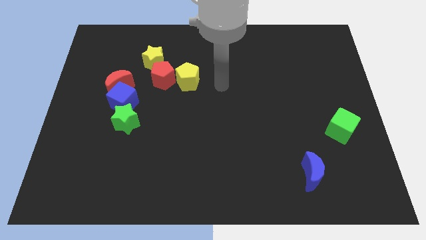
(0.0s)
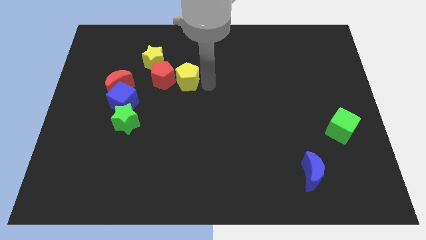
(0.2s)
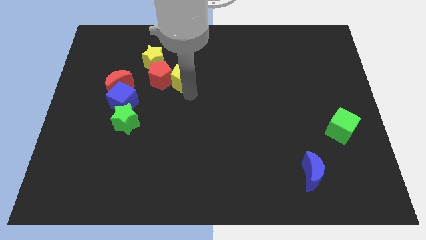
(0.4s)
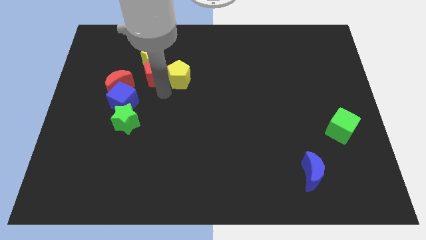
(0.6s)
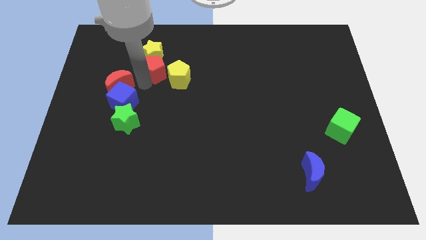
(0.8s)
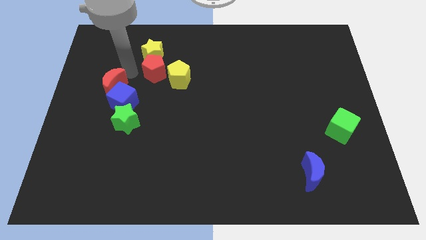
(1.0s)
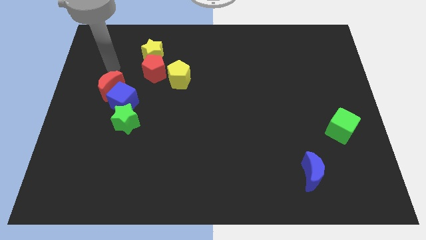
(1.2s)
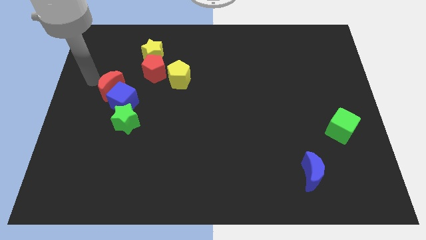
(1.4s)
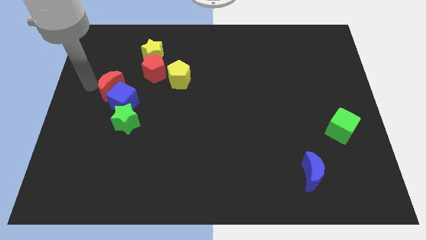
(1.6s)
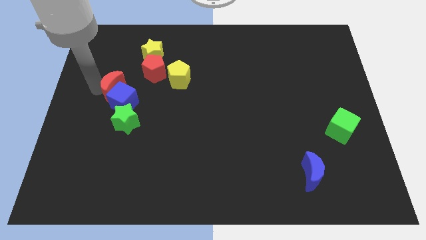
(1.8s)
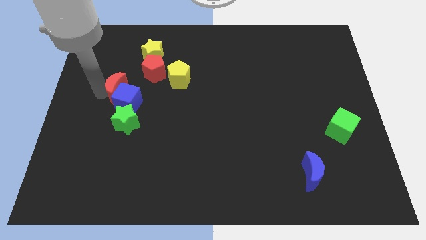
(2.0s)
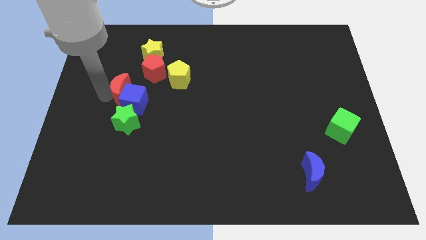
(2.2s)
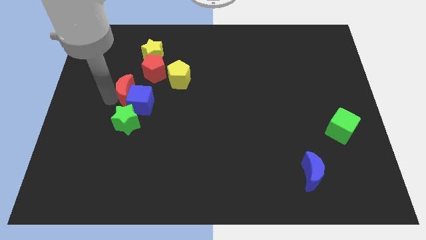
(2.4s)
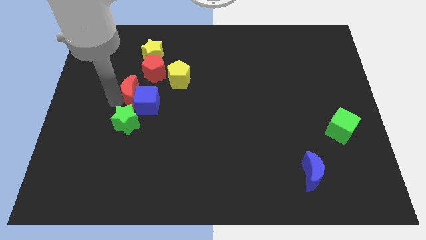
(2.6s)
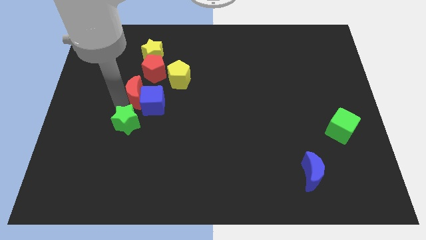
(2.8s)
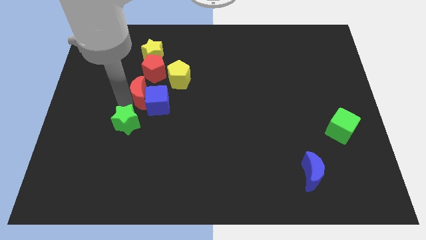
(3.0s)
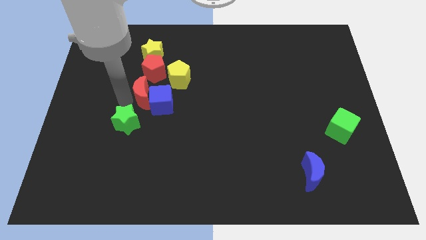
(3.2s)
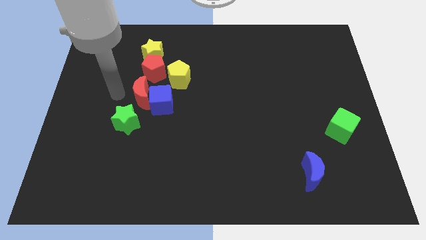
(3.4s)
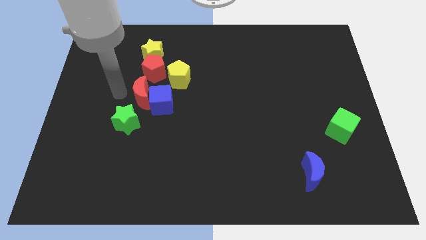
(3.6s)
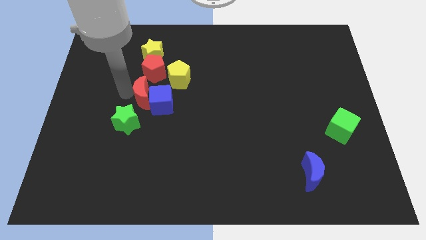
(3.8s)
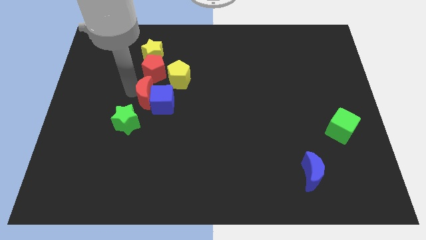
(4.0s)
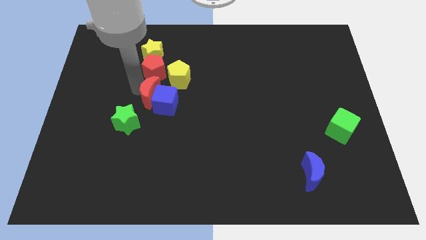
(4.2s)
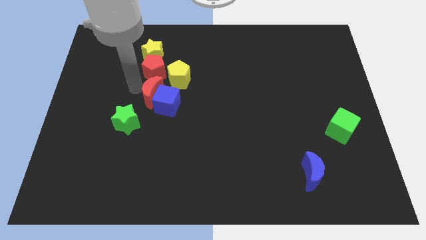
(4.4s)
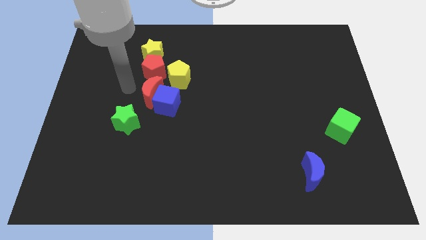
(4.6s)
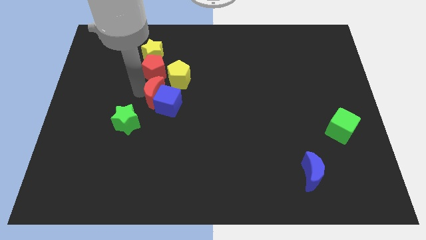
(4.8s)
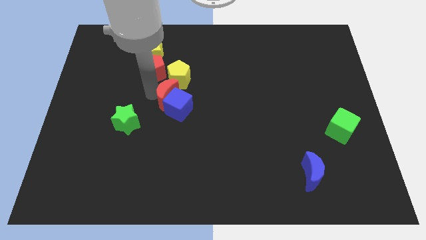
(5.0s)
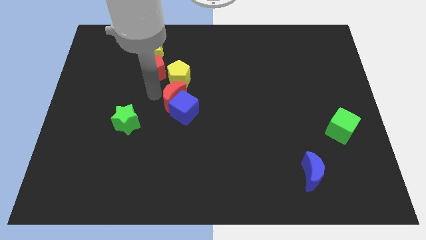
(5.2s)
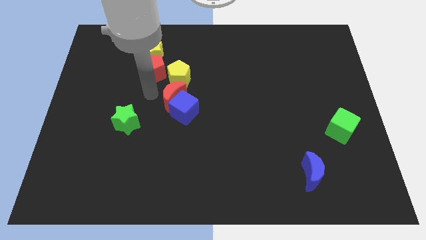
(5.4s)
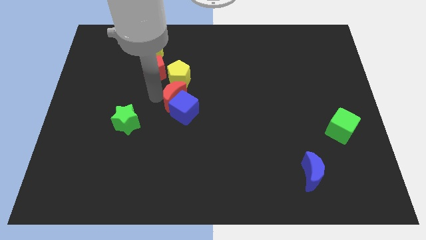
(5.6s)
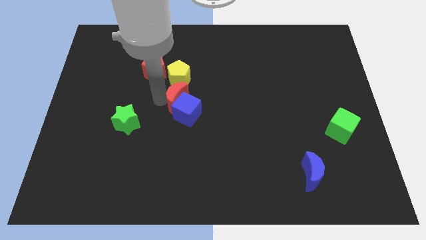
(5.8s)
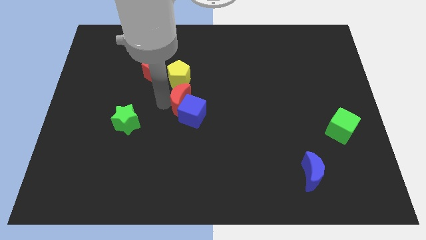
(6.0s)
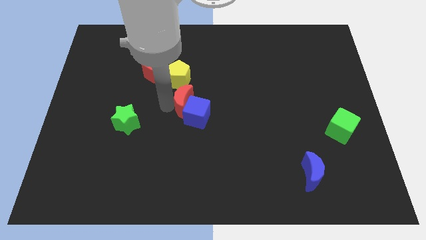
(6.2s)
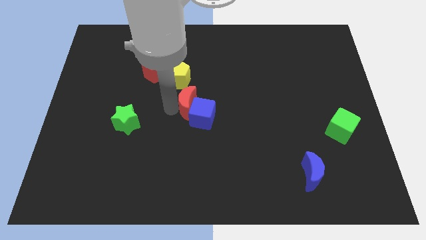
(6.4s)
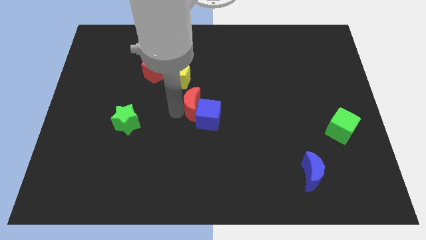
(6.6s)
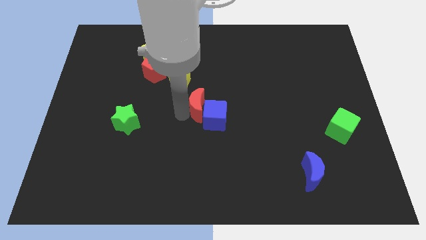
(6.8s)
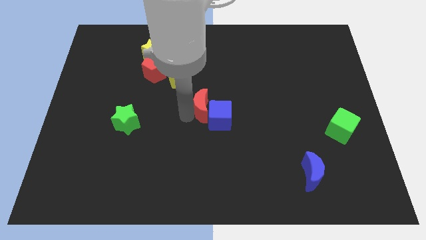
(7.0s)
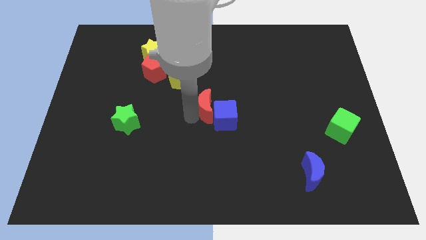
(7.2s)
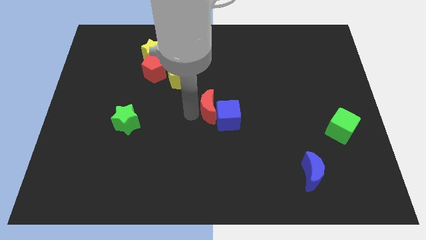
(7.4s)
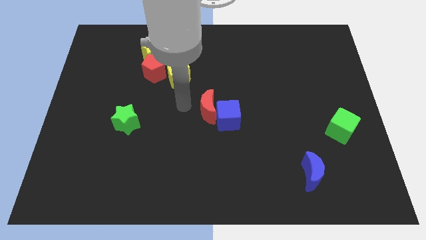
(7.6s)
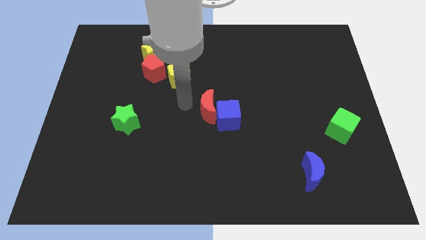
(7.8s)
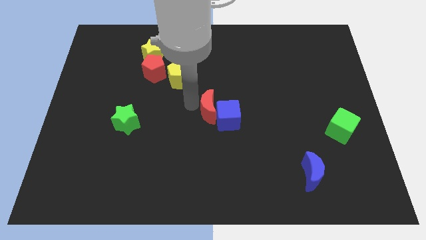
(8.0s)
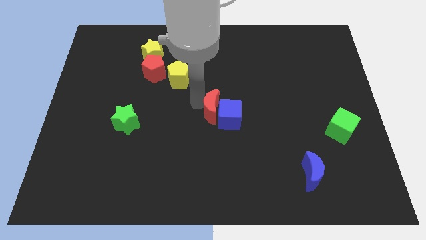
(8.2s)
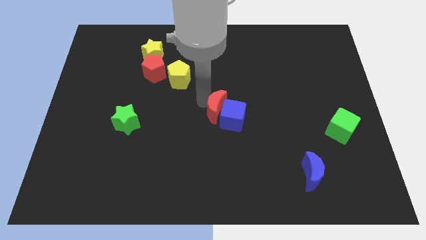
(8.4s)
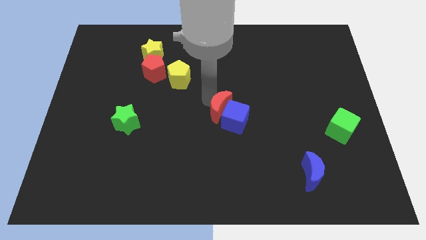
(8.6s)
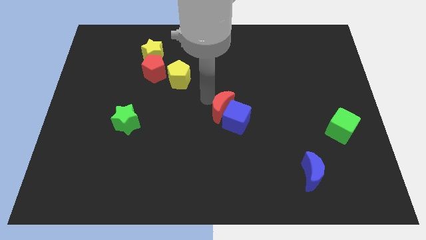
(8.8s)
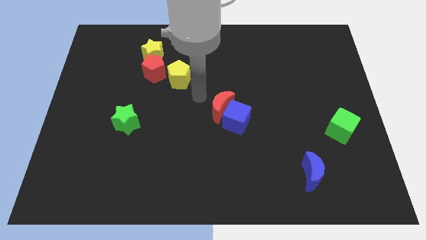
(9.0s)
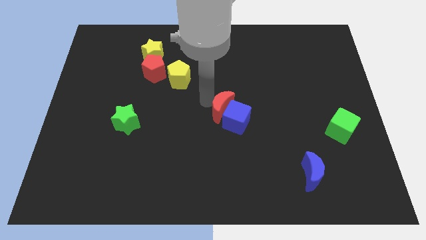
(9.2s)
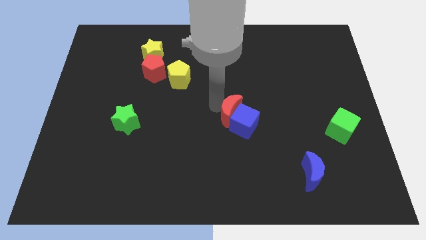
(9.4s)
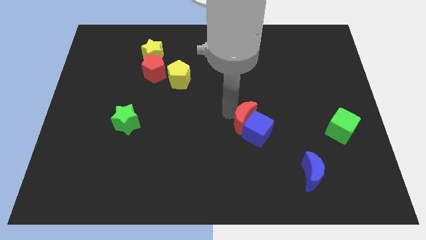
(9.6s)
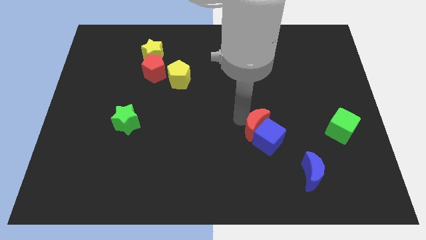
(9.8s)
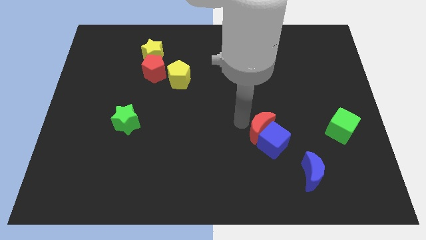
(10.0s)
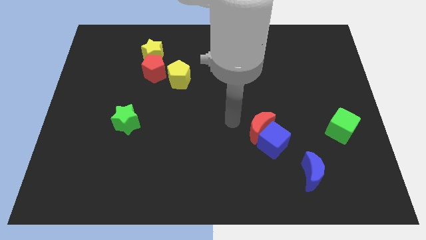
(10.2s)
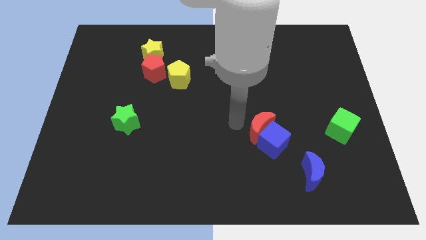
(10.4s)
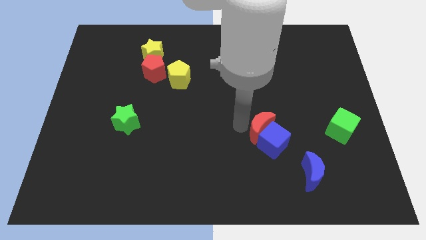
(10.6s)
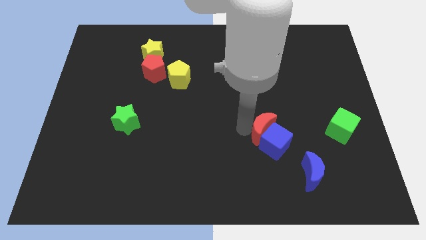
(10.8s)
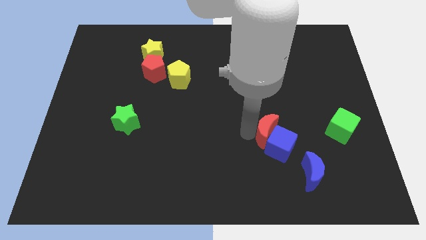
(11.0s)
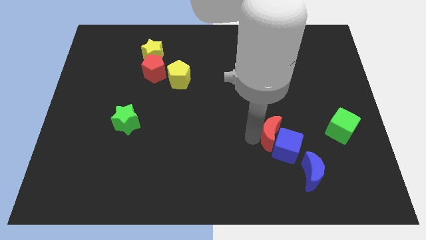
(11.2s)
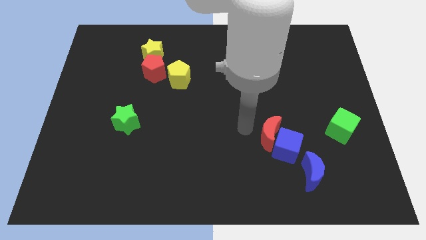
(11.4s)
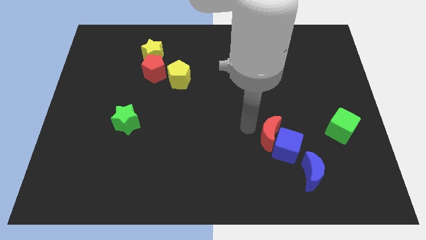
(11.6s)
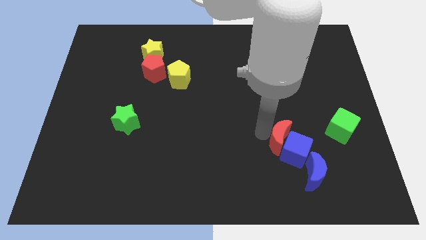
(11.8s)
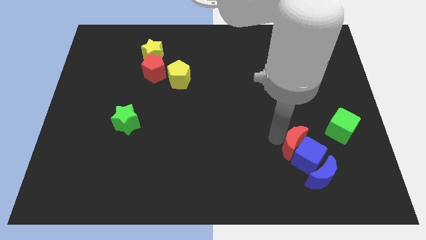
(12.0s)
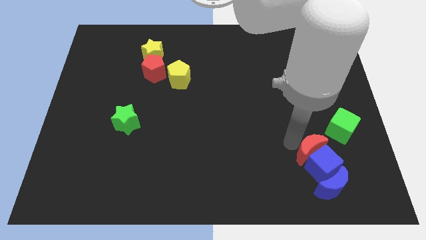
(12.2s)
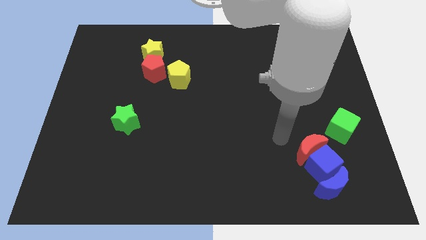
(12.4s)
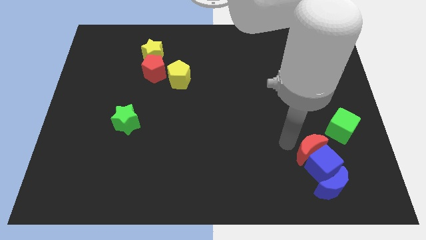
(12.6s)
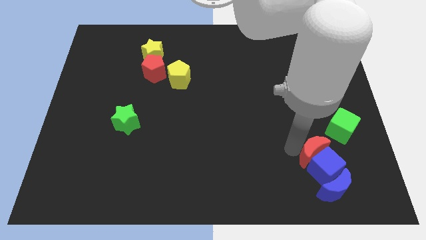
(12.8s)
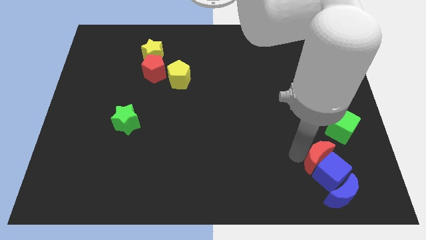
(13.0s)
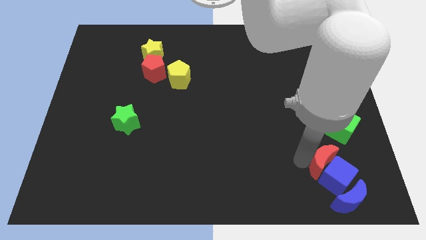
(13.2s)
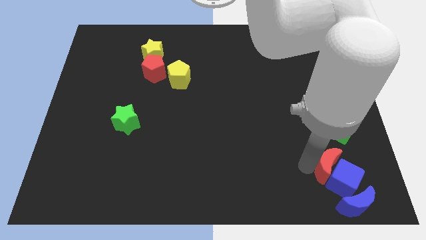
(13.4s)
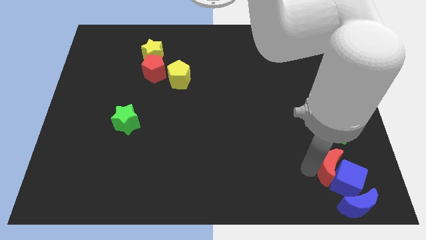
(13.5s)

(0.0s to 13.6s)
put the red moon to the bottom of the green cube
